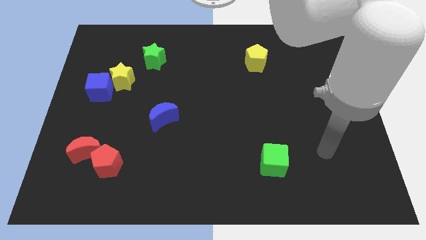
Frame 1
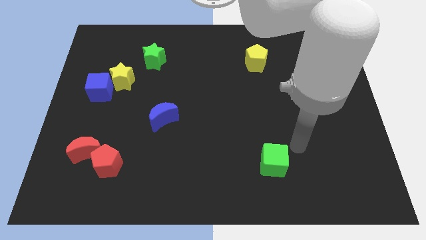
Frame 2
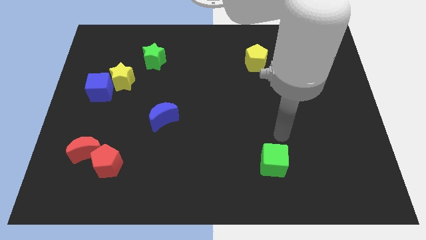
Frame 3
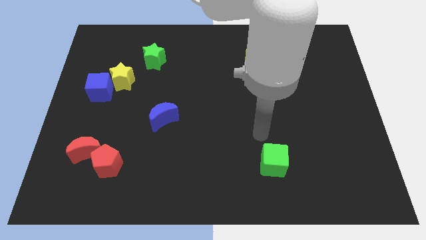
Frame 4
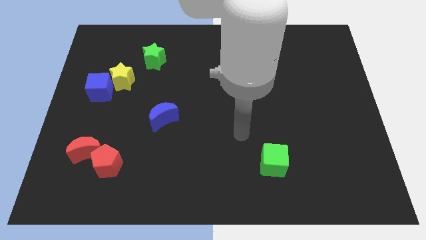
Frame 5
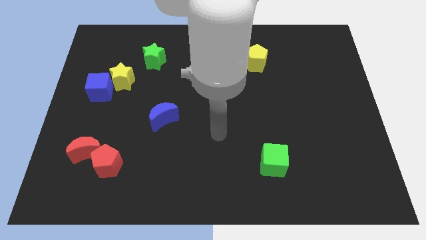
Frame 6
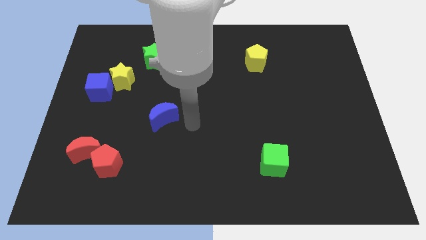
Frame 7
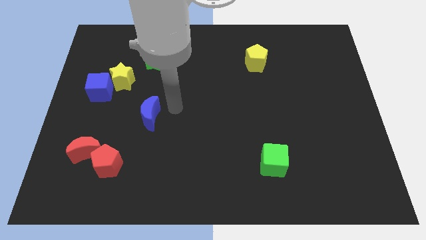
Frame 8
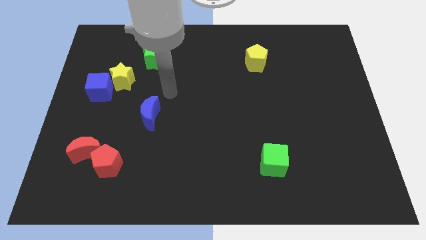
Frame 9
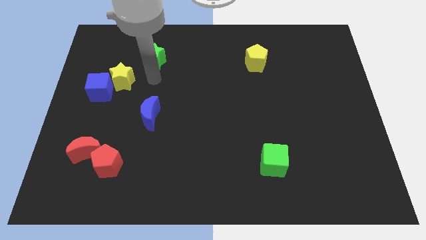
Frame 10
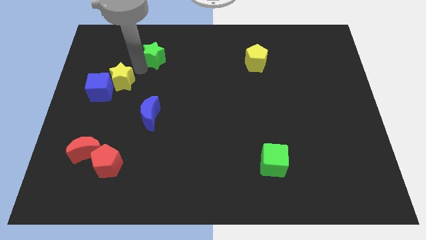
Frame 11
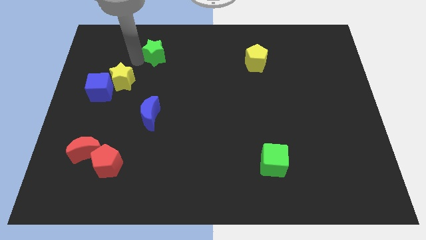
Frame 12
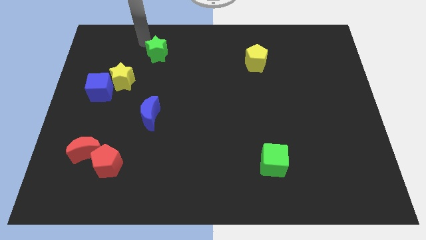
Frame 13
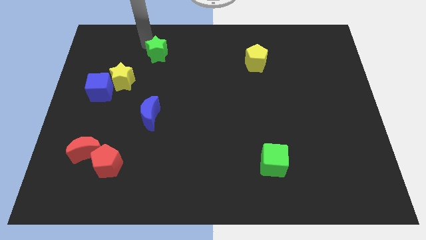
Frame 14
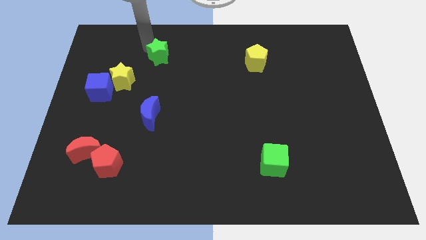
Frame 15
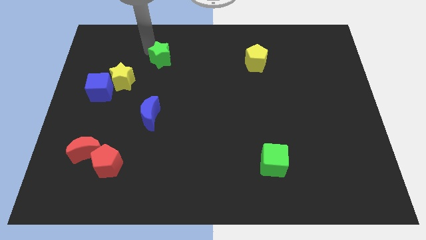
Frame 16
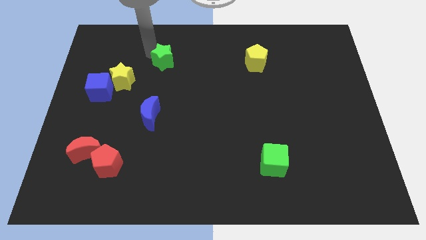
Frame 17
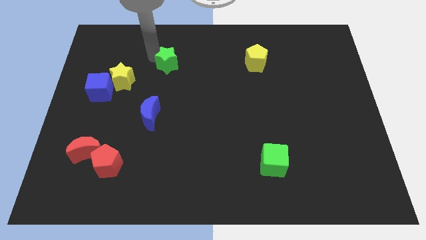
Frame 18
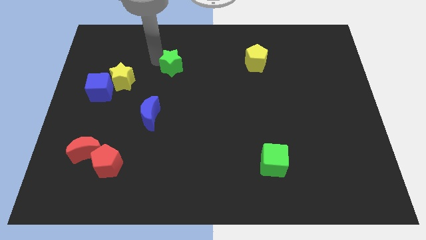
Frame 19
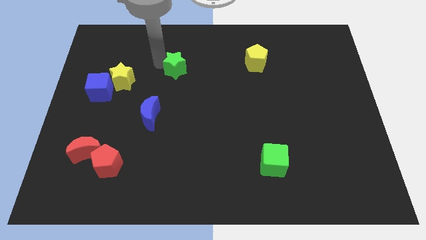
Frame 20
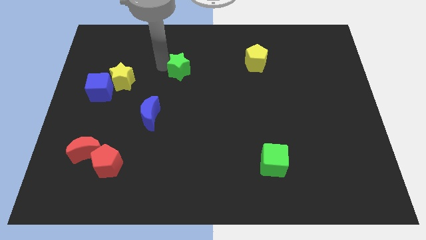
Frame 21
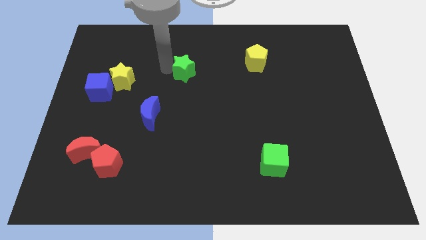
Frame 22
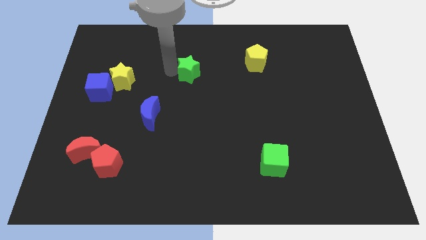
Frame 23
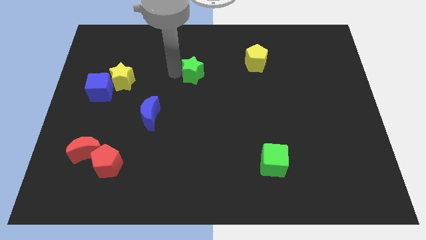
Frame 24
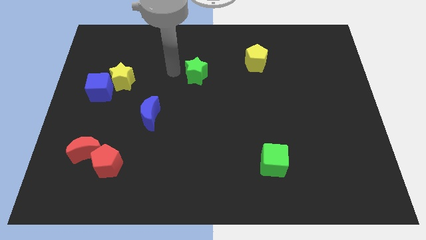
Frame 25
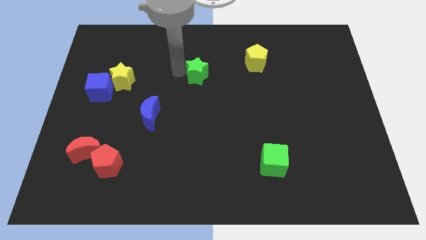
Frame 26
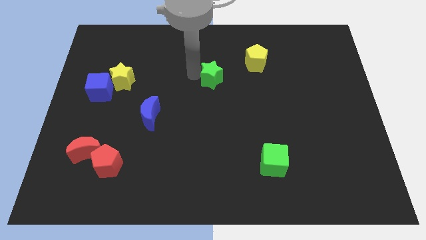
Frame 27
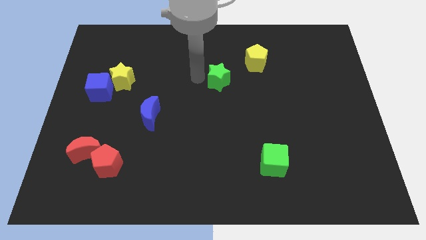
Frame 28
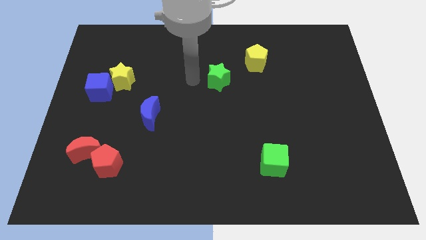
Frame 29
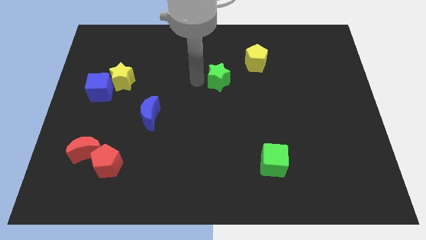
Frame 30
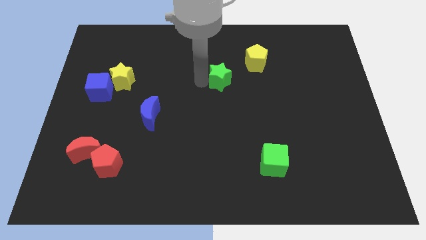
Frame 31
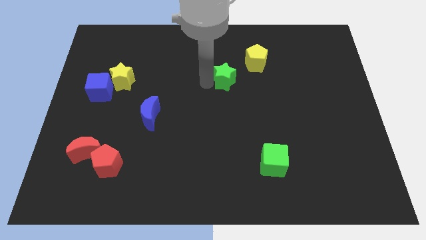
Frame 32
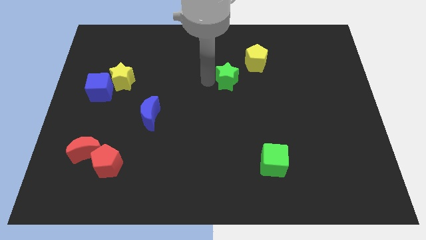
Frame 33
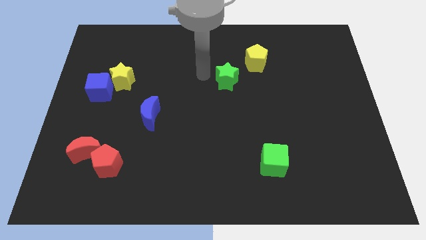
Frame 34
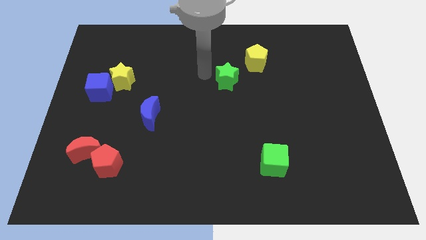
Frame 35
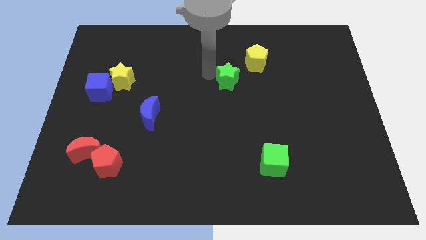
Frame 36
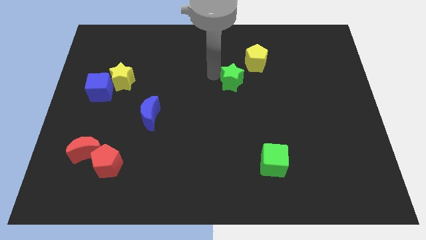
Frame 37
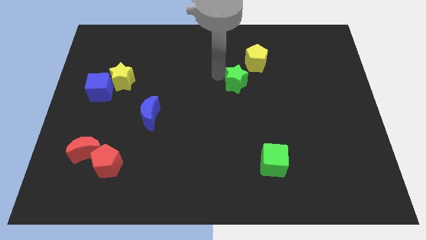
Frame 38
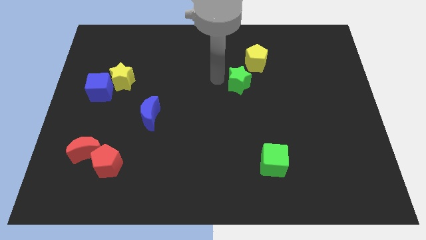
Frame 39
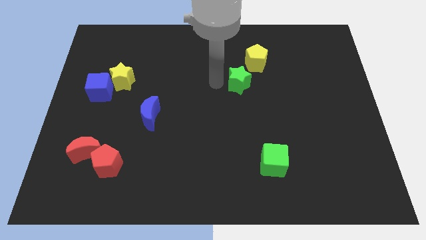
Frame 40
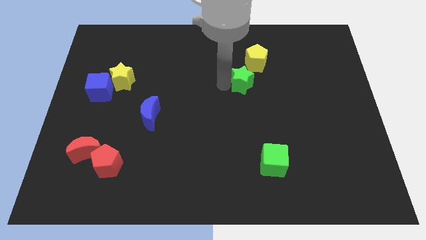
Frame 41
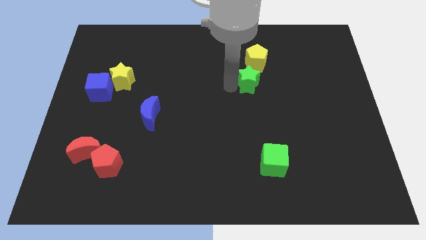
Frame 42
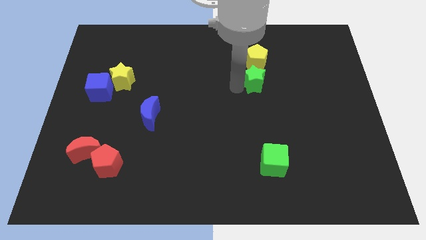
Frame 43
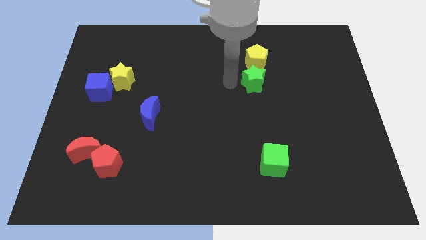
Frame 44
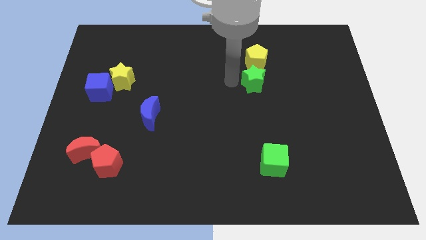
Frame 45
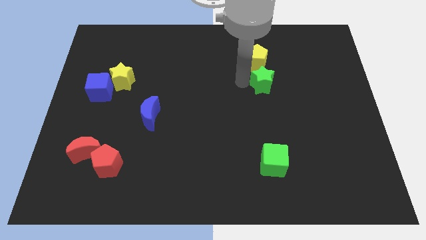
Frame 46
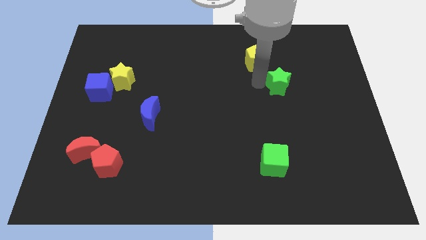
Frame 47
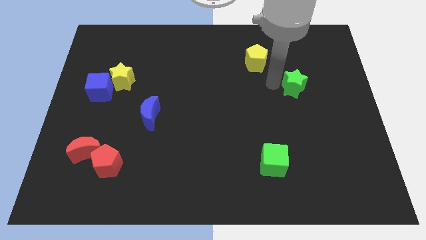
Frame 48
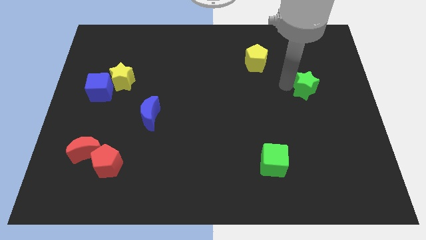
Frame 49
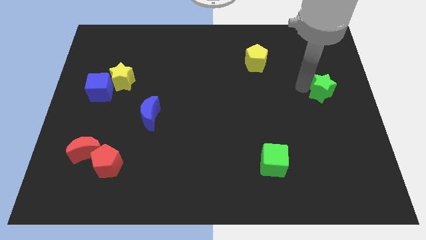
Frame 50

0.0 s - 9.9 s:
put the green star to the center right

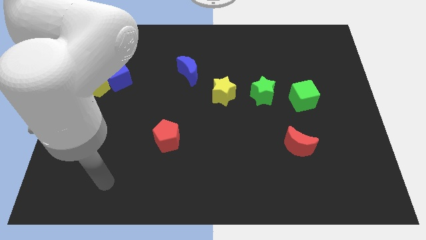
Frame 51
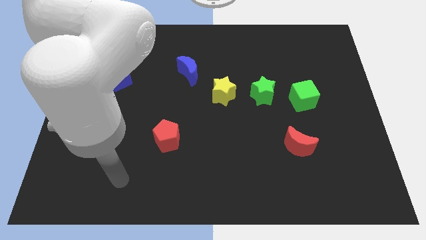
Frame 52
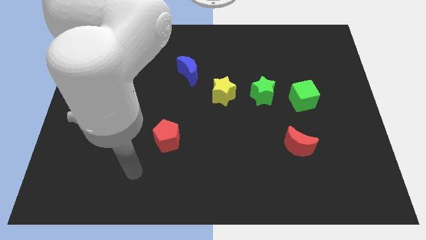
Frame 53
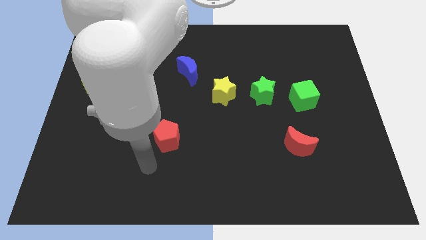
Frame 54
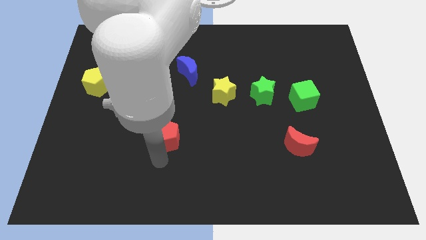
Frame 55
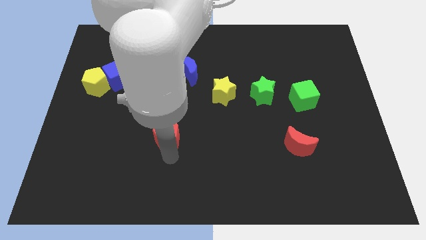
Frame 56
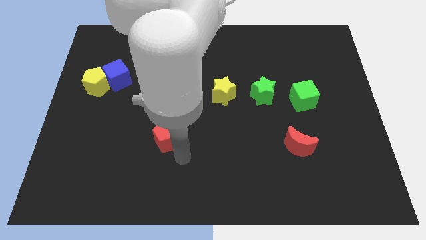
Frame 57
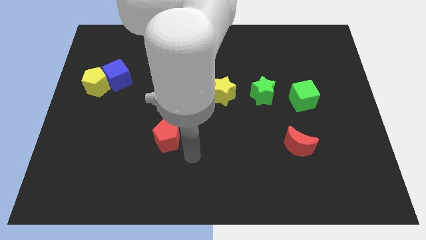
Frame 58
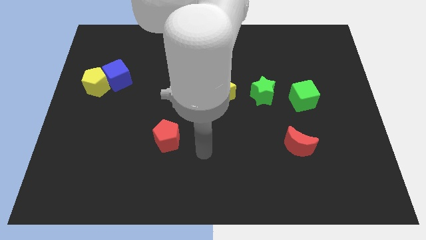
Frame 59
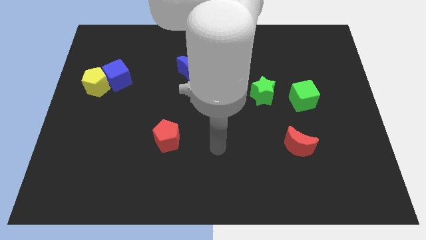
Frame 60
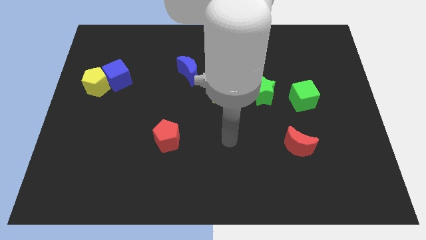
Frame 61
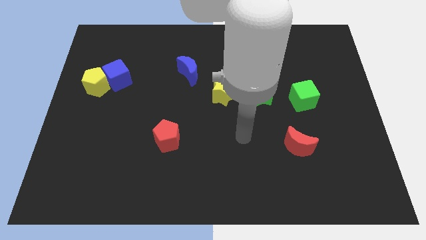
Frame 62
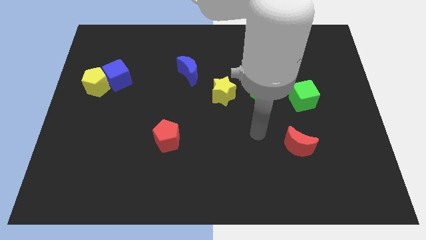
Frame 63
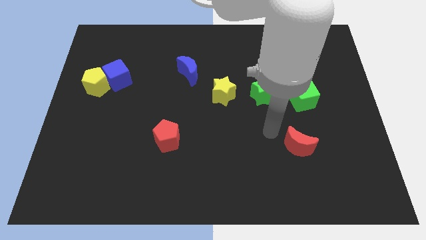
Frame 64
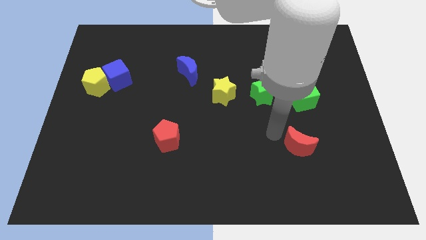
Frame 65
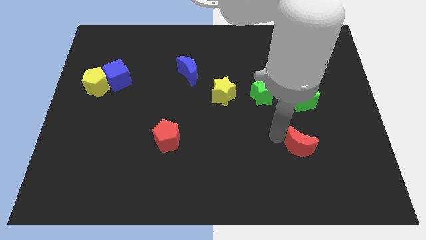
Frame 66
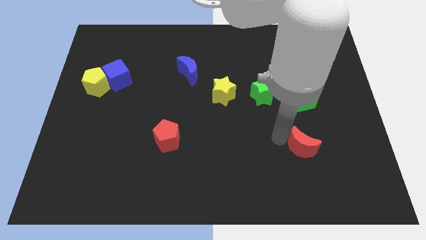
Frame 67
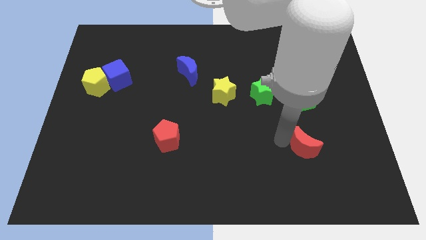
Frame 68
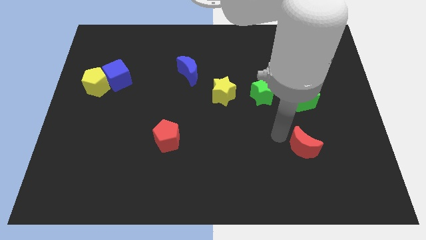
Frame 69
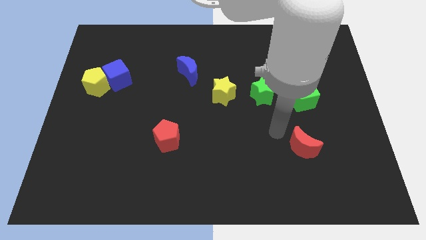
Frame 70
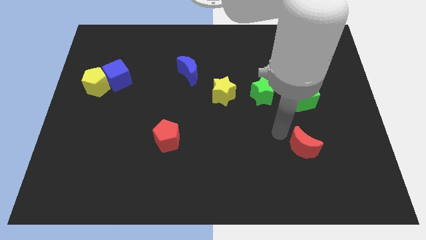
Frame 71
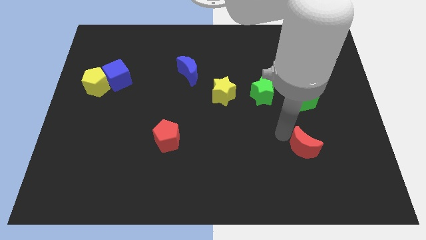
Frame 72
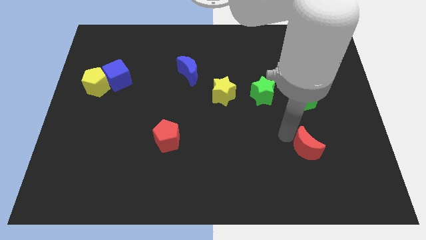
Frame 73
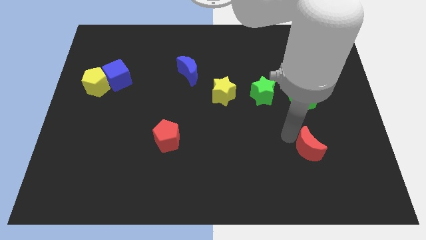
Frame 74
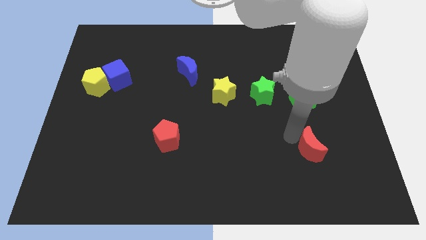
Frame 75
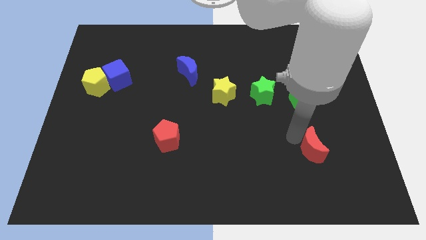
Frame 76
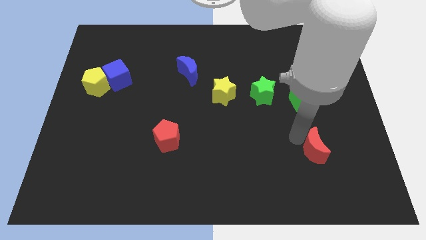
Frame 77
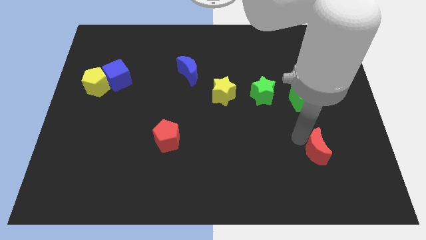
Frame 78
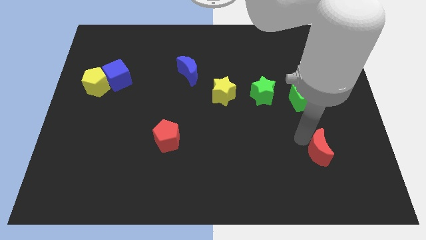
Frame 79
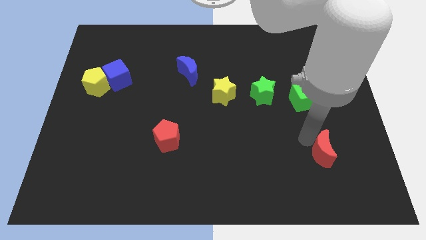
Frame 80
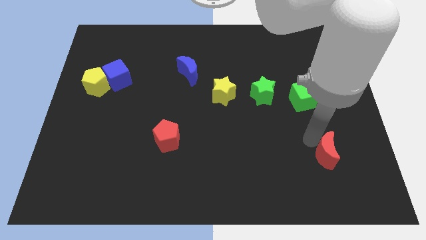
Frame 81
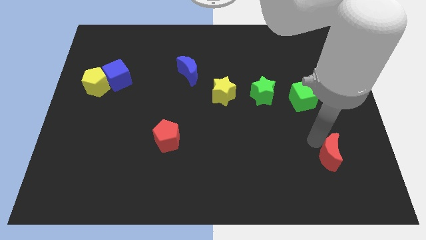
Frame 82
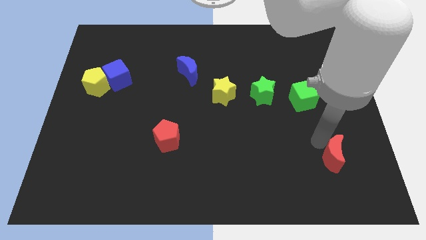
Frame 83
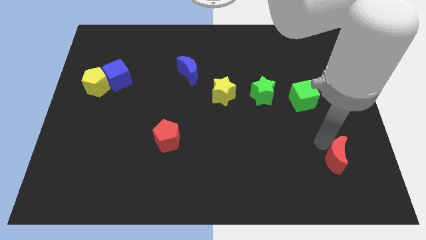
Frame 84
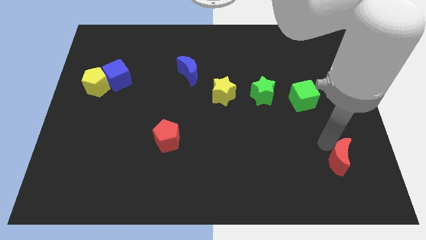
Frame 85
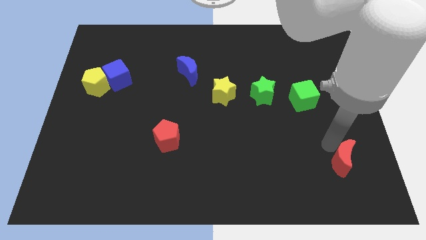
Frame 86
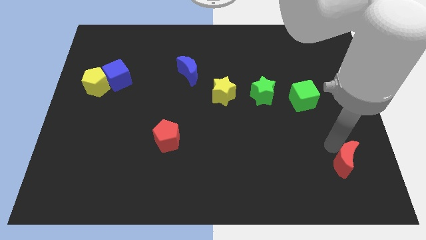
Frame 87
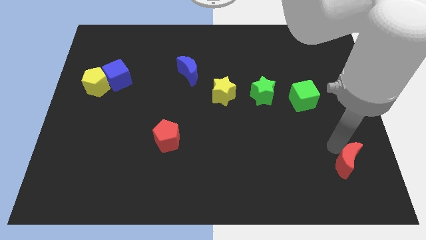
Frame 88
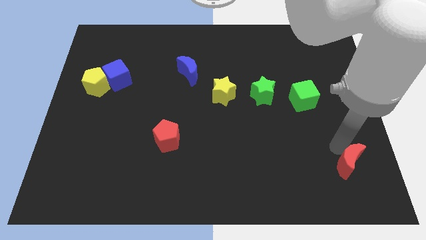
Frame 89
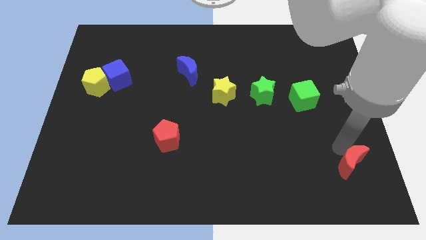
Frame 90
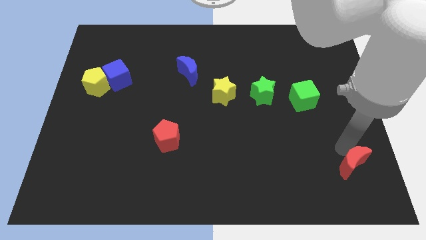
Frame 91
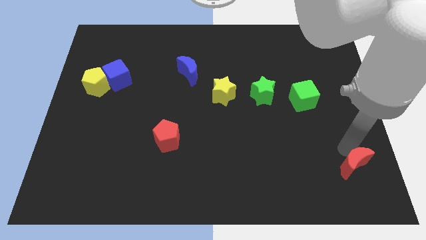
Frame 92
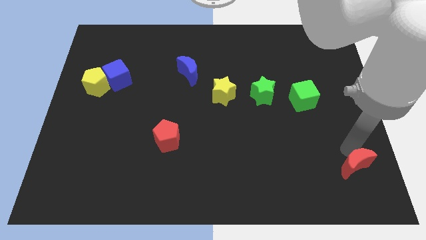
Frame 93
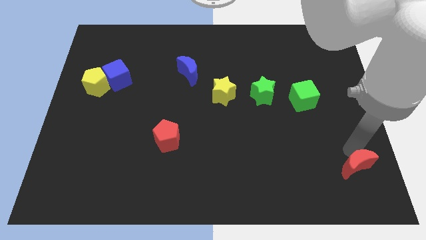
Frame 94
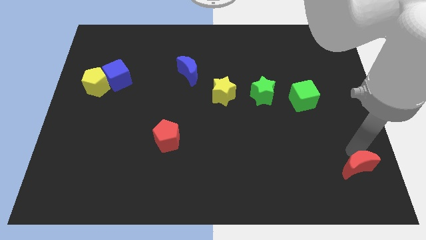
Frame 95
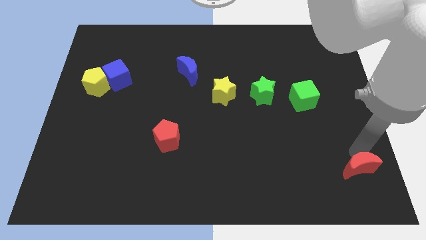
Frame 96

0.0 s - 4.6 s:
move the red moon to the bottom right of the board
